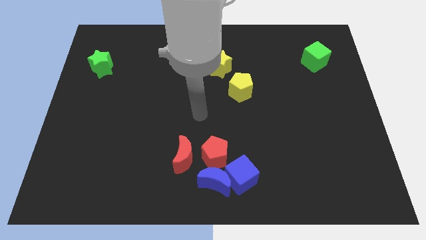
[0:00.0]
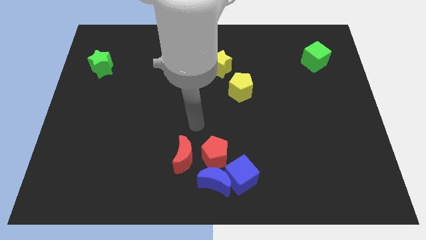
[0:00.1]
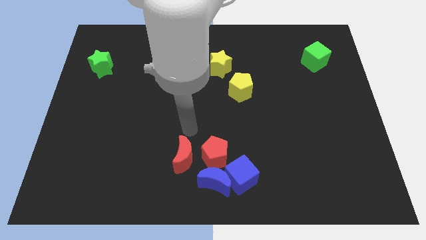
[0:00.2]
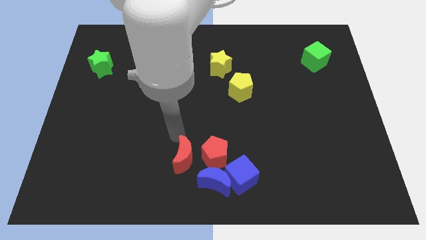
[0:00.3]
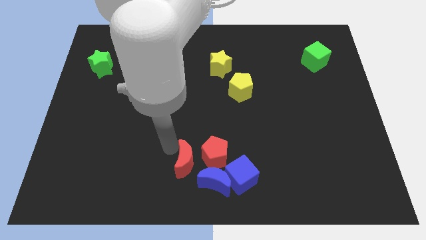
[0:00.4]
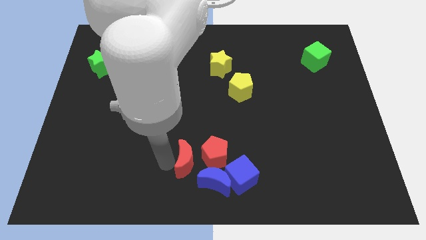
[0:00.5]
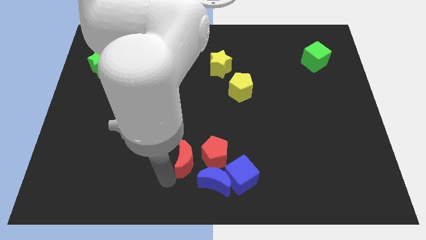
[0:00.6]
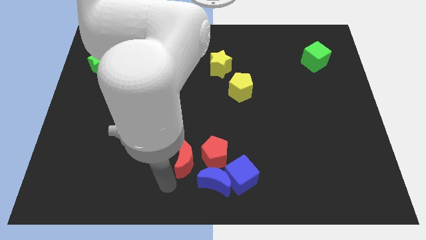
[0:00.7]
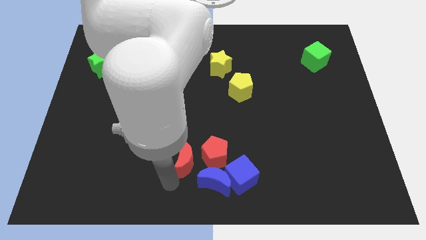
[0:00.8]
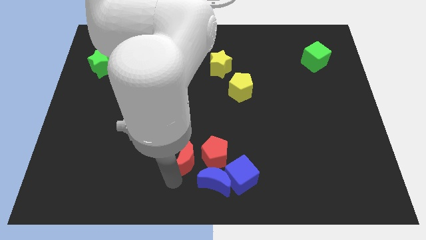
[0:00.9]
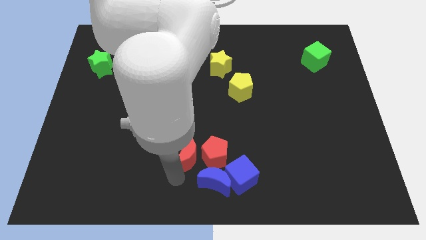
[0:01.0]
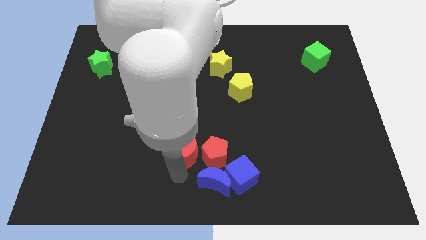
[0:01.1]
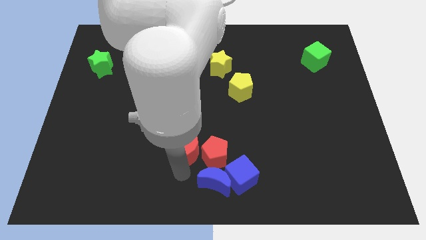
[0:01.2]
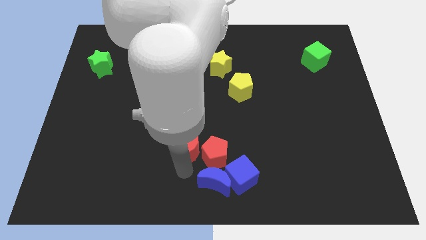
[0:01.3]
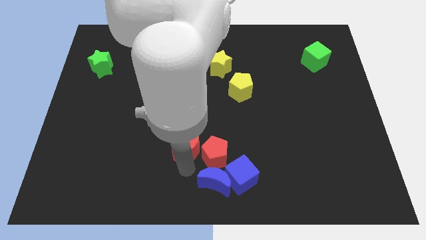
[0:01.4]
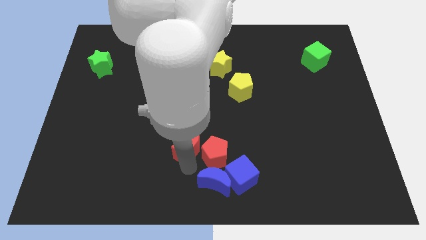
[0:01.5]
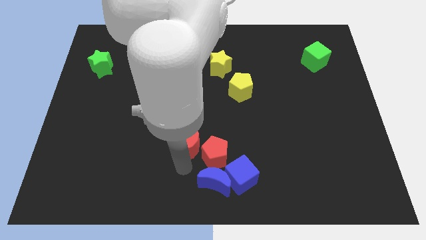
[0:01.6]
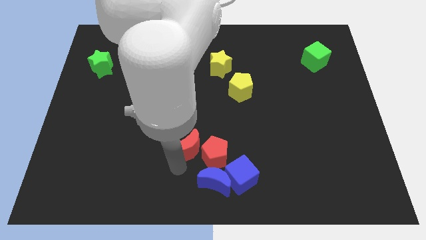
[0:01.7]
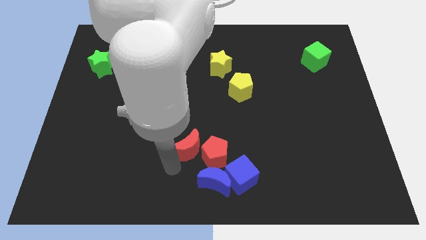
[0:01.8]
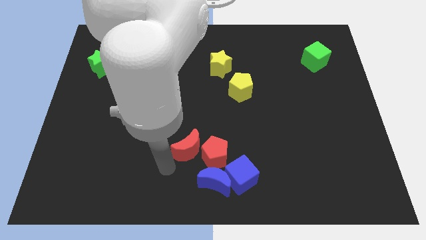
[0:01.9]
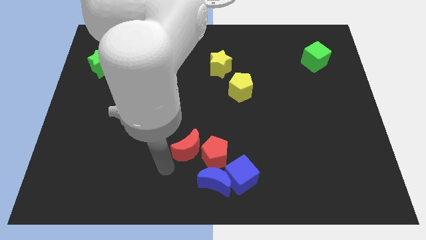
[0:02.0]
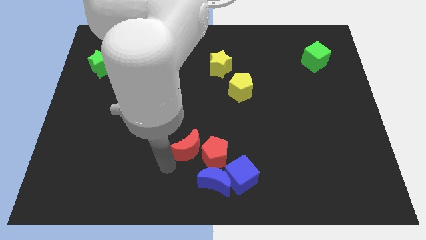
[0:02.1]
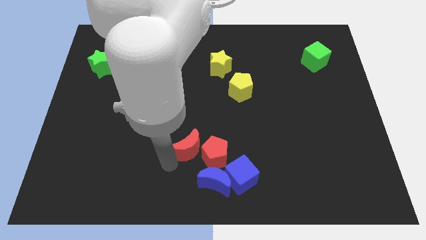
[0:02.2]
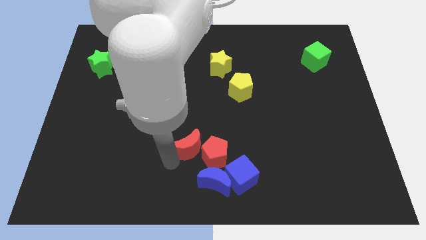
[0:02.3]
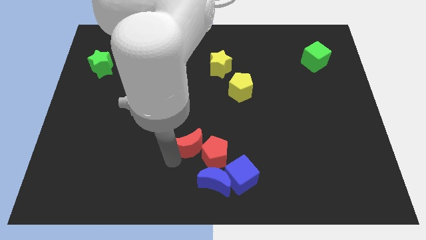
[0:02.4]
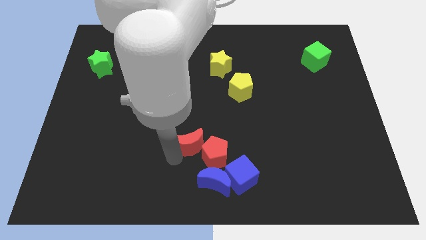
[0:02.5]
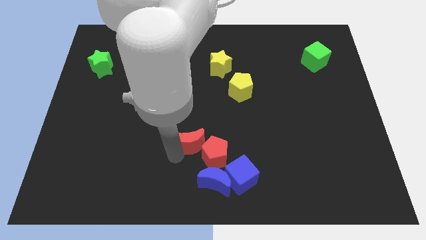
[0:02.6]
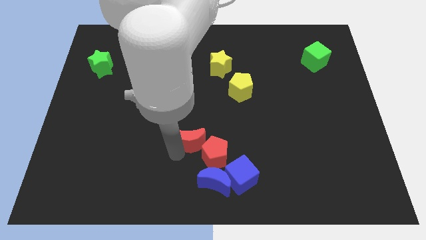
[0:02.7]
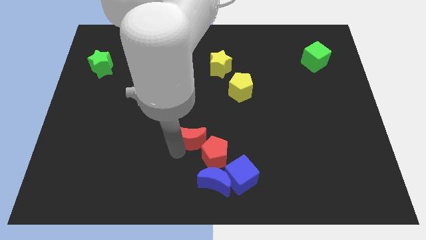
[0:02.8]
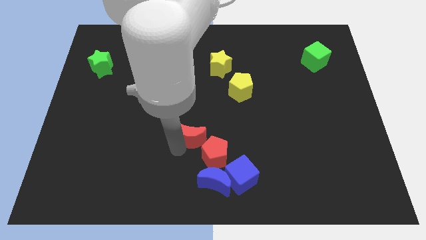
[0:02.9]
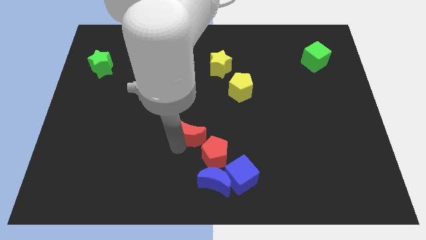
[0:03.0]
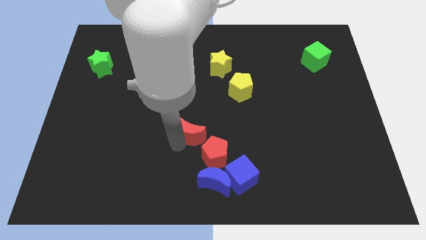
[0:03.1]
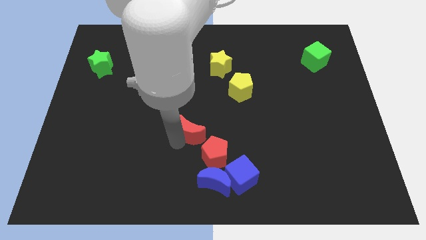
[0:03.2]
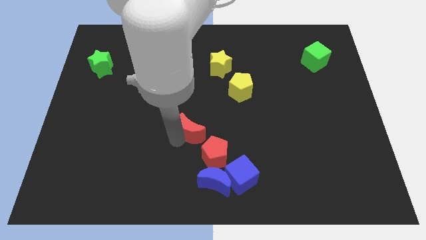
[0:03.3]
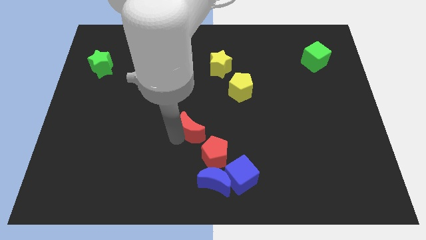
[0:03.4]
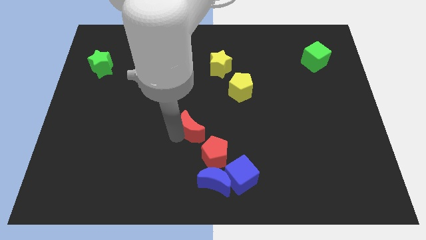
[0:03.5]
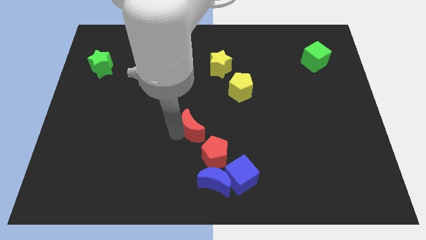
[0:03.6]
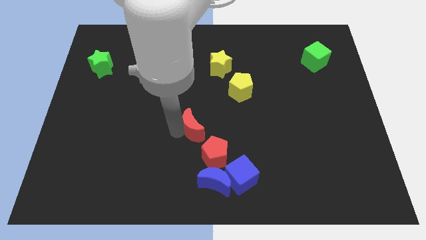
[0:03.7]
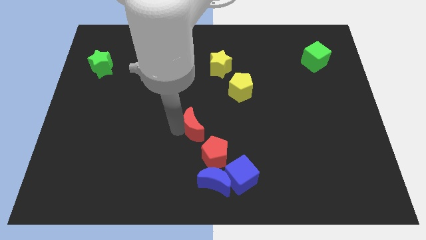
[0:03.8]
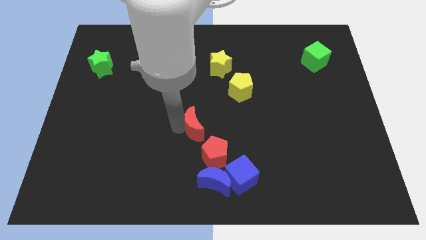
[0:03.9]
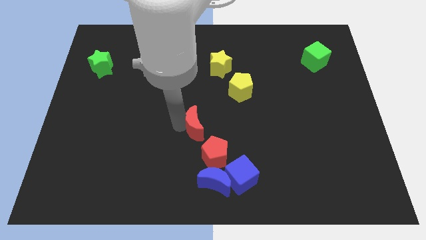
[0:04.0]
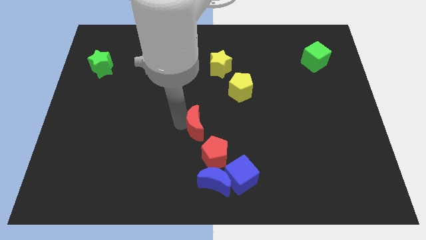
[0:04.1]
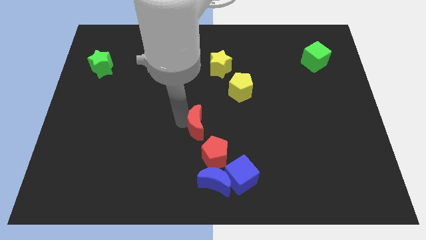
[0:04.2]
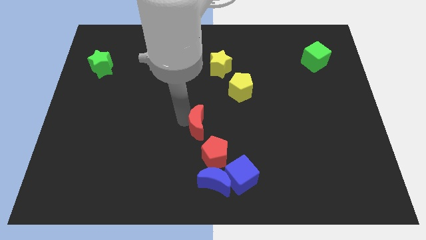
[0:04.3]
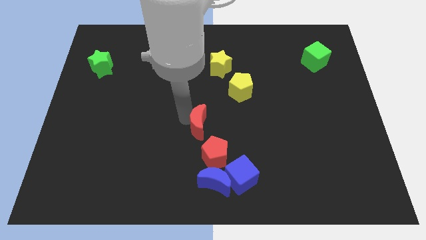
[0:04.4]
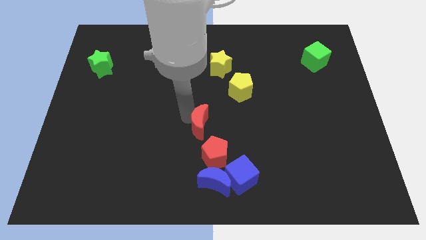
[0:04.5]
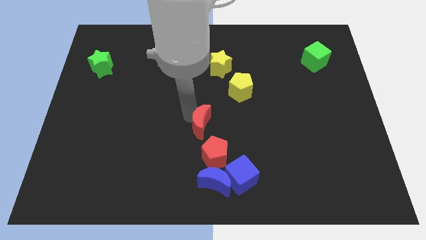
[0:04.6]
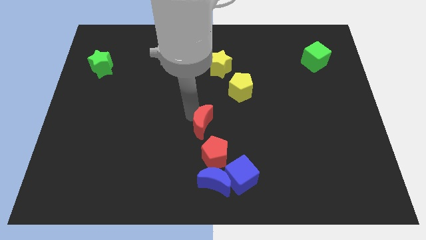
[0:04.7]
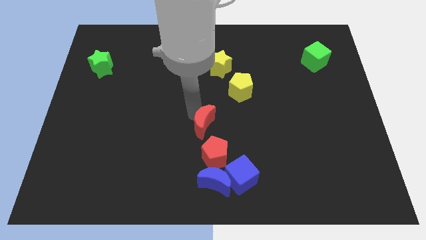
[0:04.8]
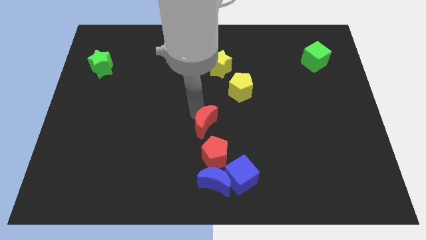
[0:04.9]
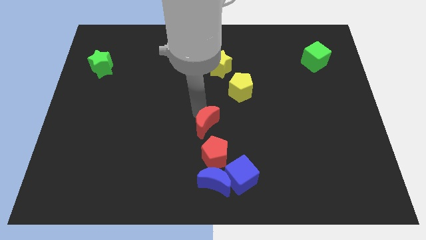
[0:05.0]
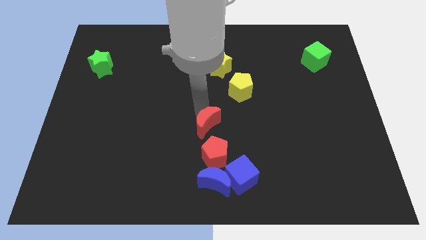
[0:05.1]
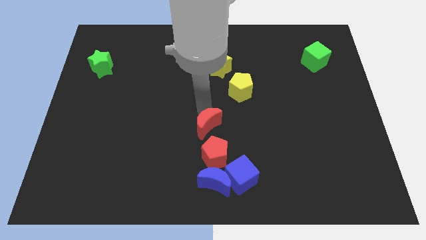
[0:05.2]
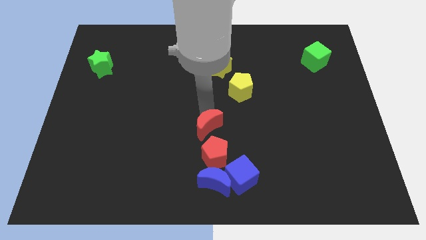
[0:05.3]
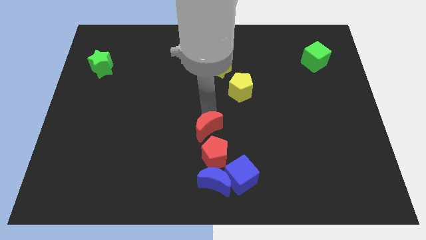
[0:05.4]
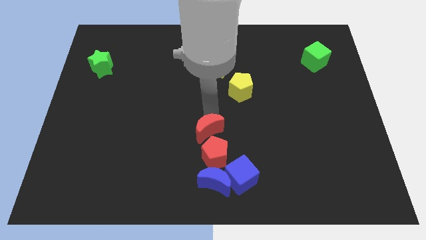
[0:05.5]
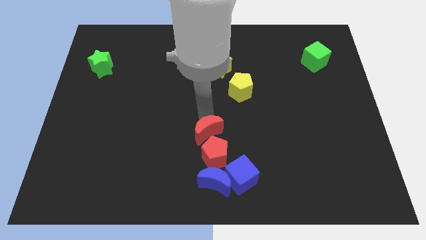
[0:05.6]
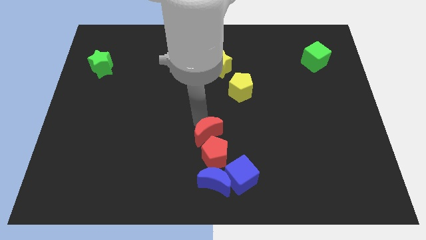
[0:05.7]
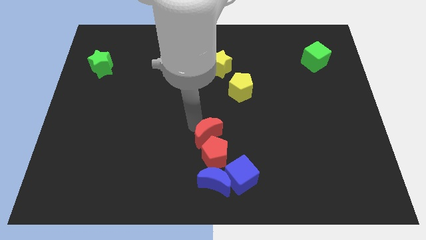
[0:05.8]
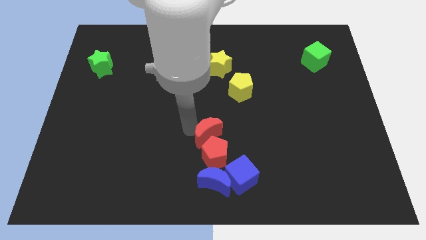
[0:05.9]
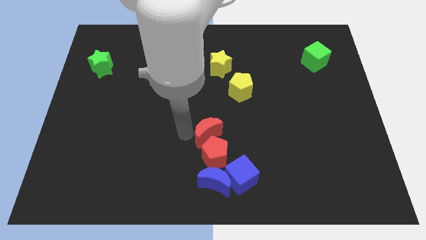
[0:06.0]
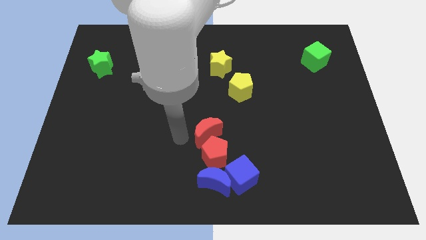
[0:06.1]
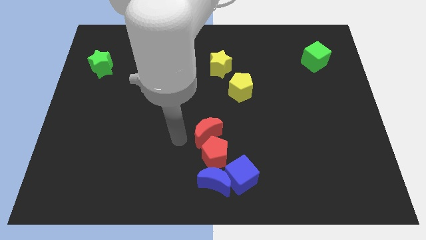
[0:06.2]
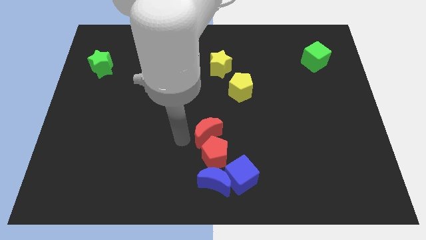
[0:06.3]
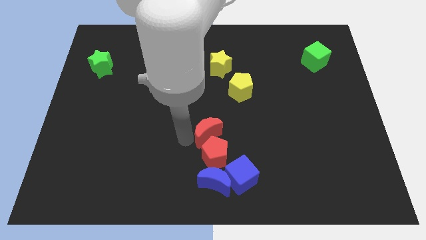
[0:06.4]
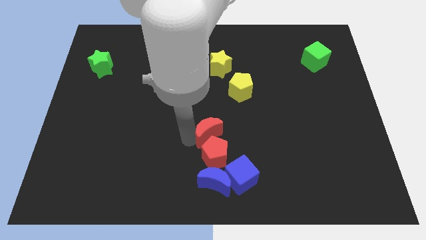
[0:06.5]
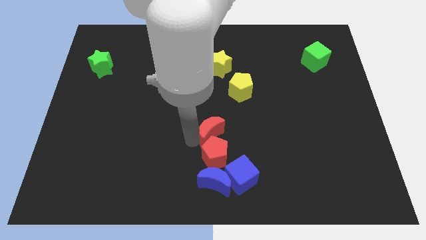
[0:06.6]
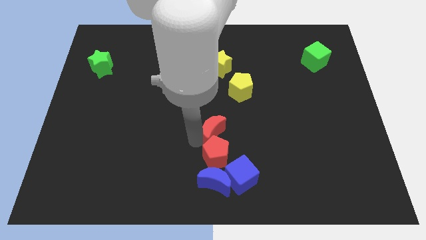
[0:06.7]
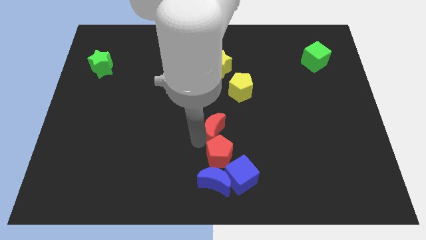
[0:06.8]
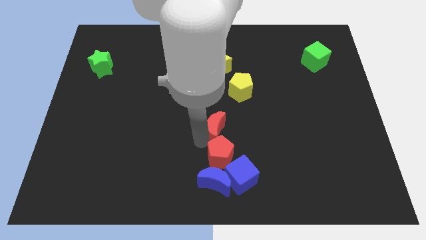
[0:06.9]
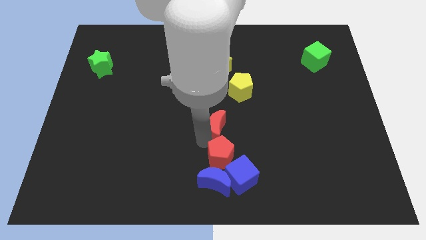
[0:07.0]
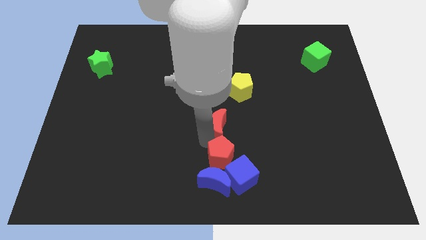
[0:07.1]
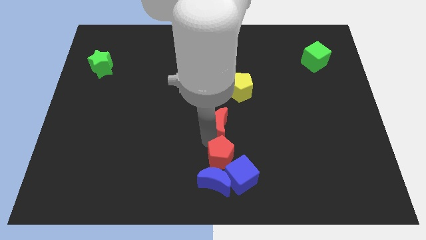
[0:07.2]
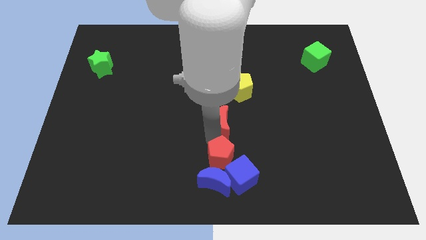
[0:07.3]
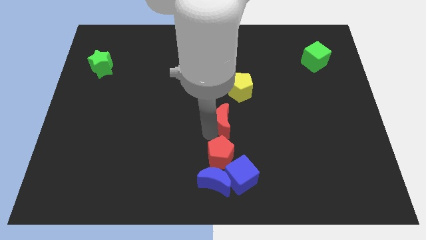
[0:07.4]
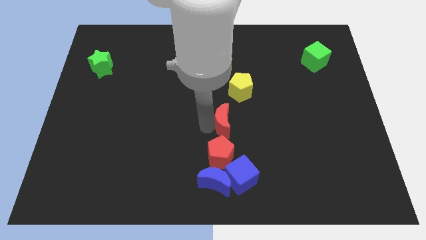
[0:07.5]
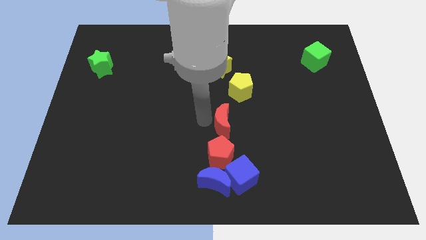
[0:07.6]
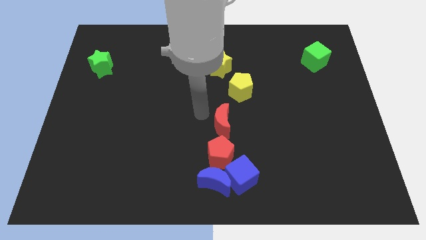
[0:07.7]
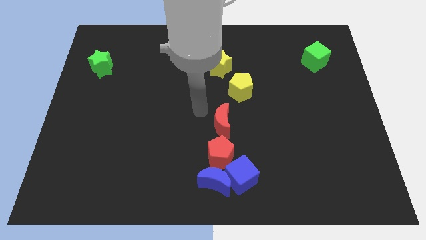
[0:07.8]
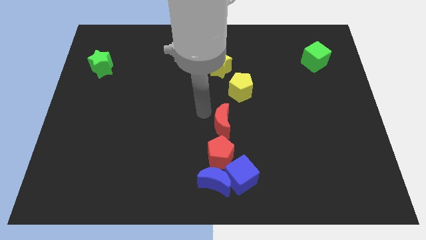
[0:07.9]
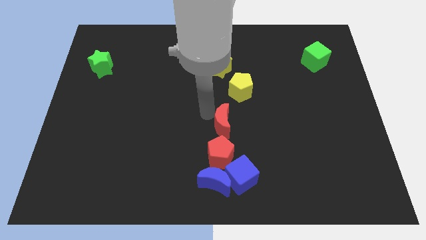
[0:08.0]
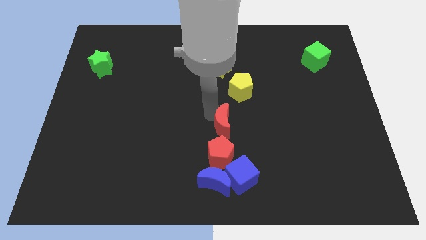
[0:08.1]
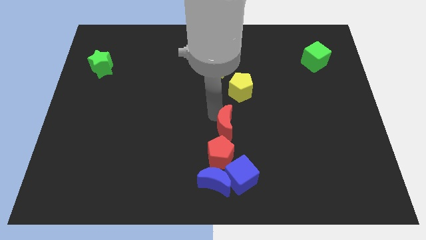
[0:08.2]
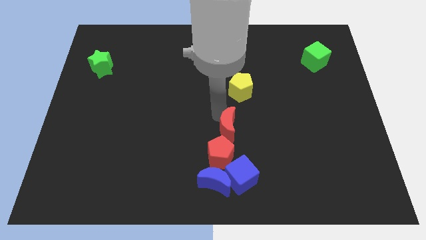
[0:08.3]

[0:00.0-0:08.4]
move the red moon right a little
